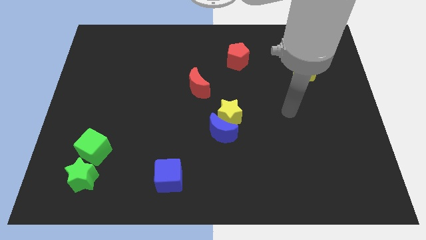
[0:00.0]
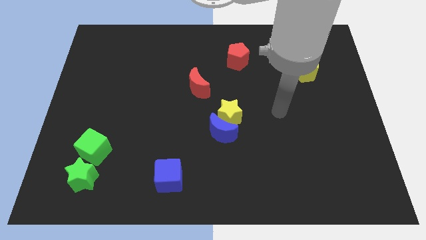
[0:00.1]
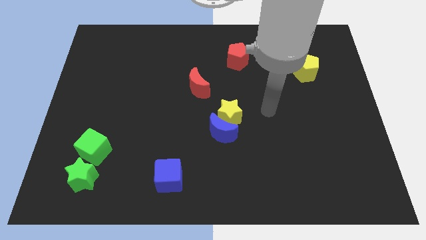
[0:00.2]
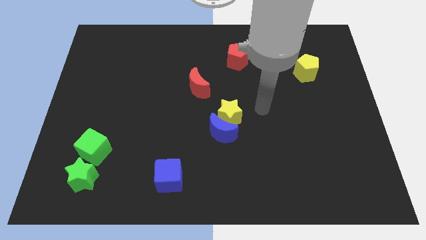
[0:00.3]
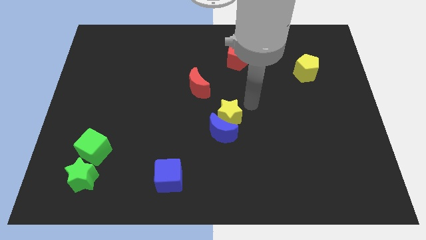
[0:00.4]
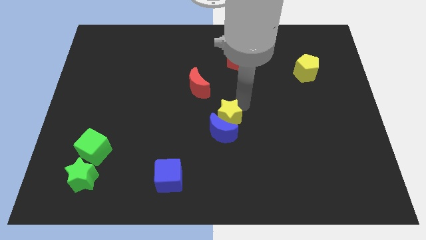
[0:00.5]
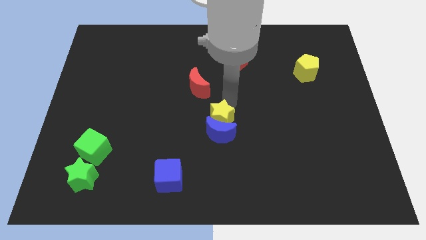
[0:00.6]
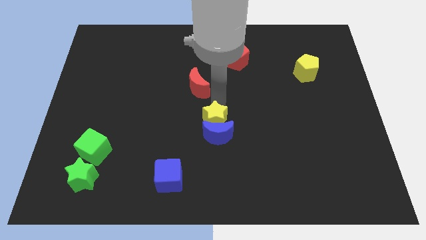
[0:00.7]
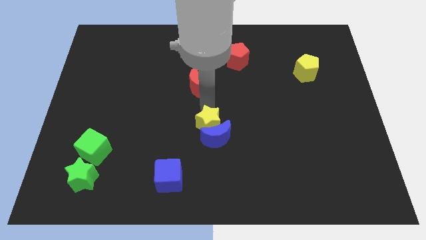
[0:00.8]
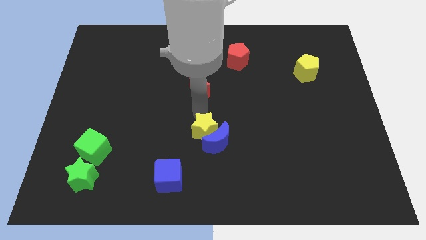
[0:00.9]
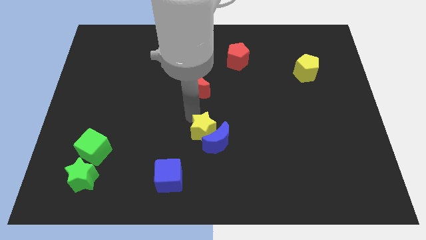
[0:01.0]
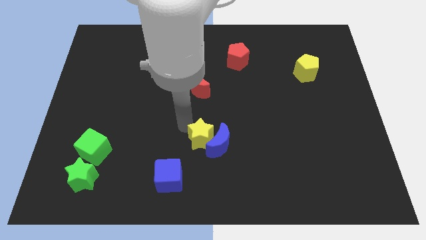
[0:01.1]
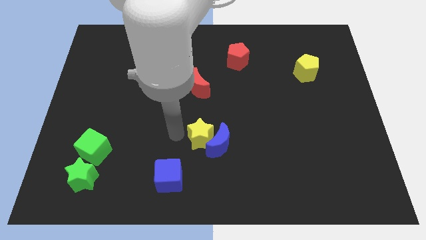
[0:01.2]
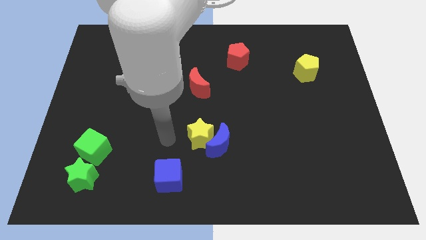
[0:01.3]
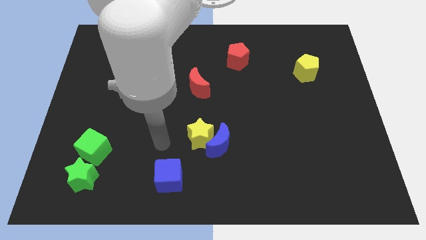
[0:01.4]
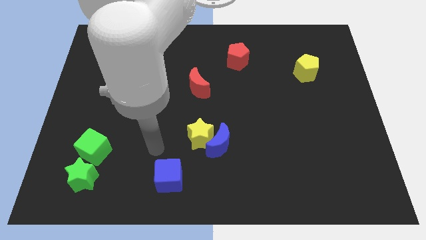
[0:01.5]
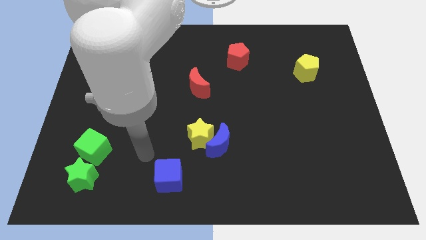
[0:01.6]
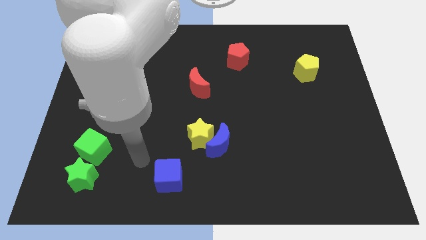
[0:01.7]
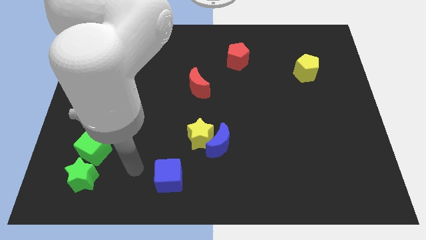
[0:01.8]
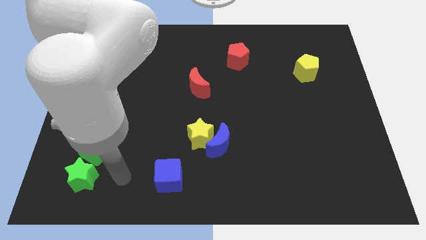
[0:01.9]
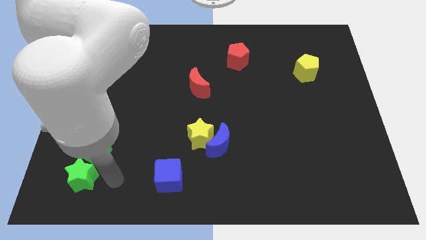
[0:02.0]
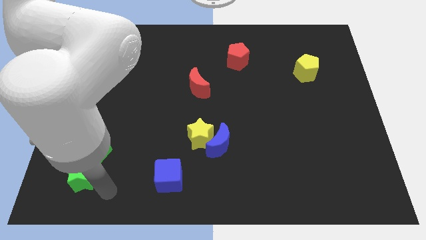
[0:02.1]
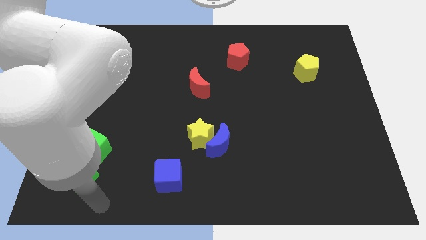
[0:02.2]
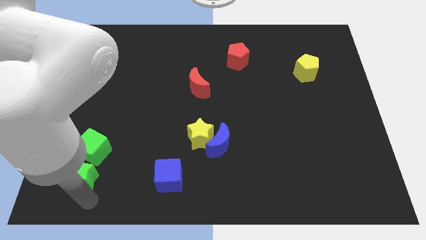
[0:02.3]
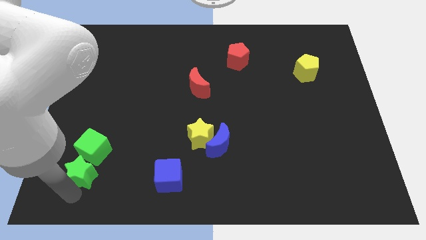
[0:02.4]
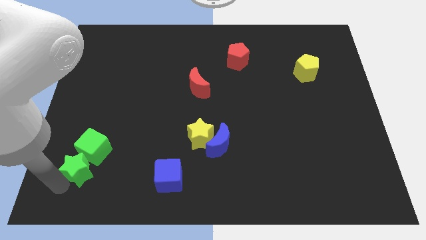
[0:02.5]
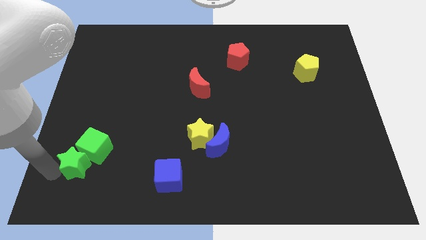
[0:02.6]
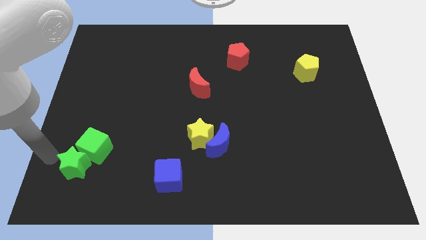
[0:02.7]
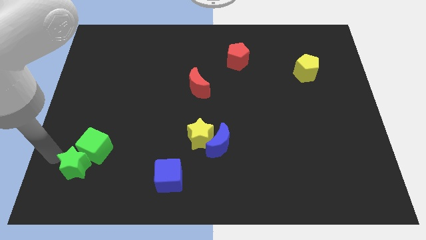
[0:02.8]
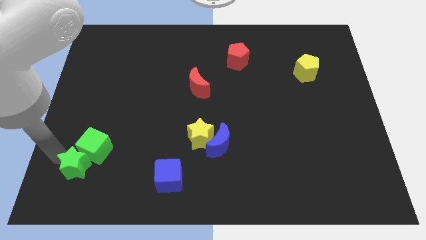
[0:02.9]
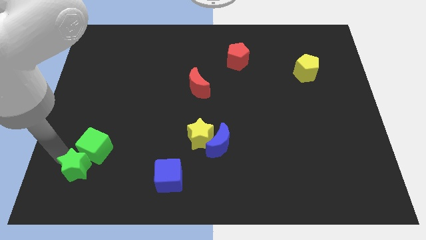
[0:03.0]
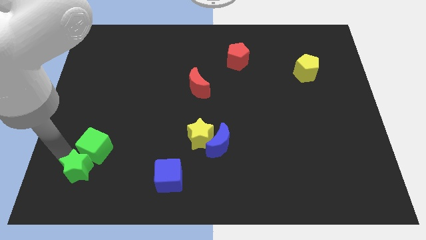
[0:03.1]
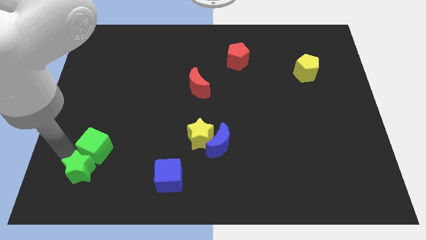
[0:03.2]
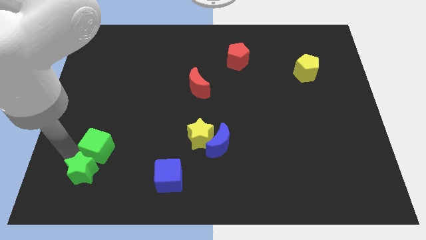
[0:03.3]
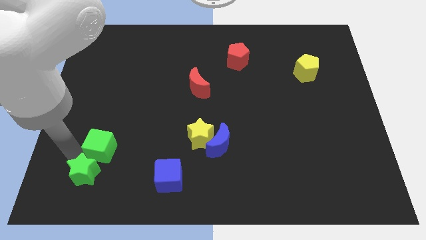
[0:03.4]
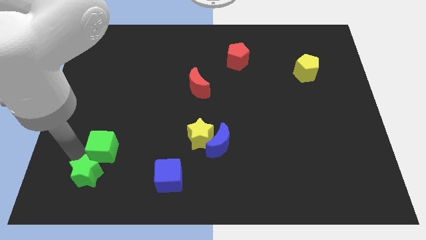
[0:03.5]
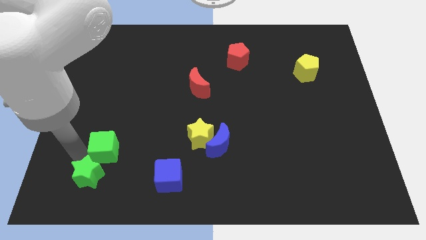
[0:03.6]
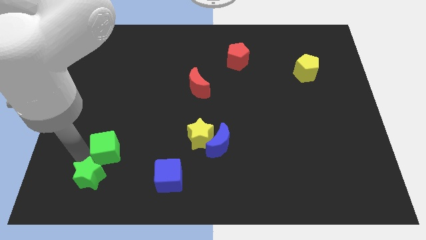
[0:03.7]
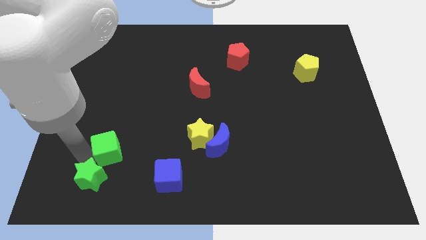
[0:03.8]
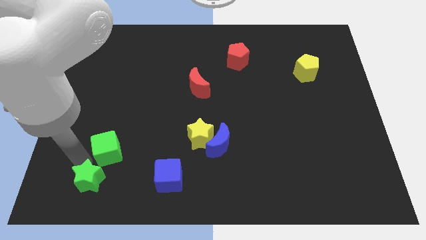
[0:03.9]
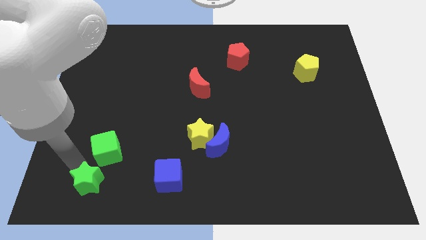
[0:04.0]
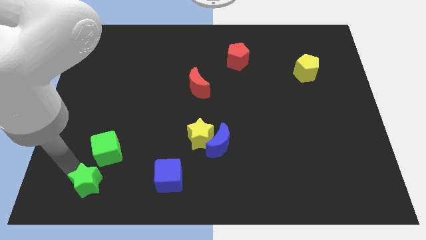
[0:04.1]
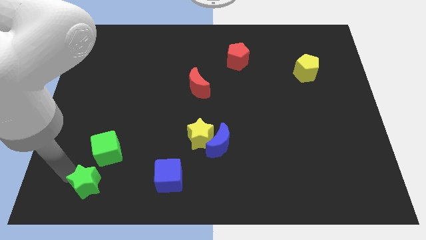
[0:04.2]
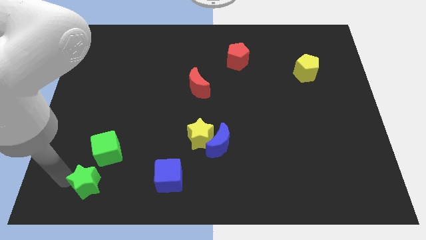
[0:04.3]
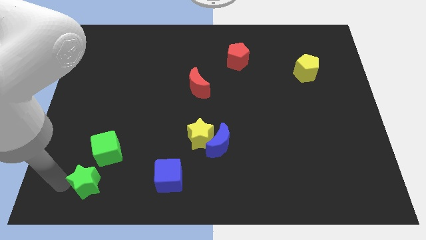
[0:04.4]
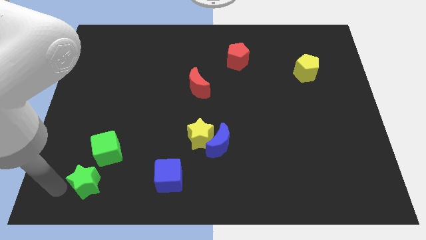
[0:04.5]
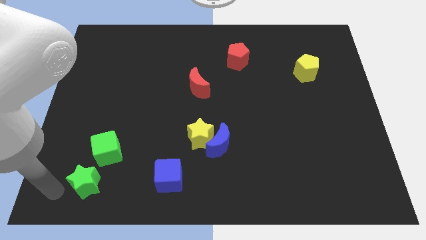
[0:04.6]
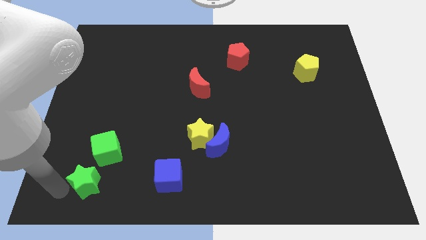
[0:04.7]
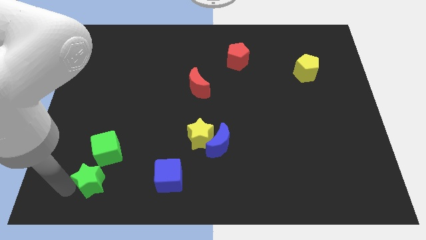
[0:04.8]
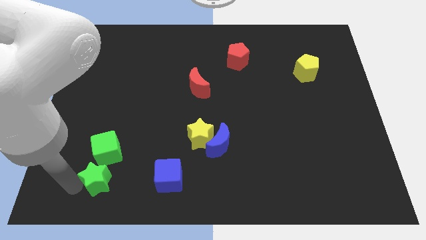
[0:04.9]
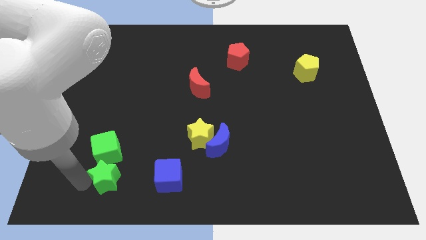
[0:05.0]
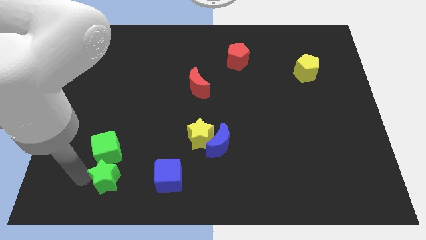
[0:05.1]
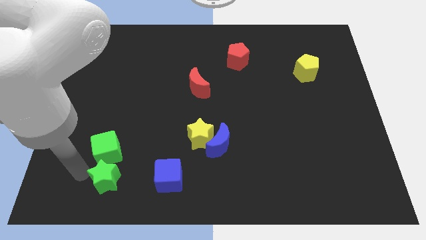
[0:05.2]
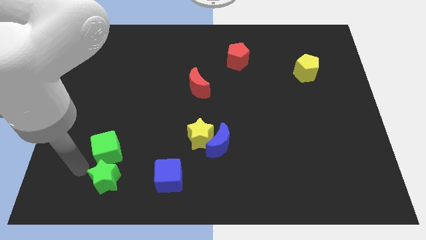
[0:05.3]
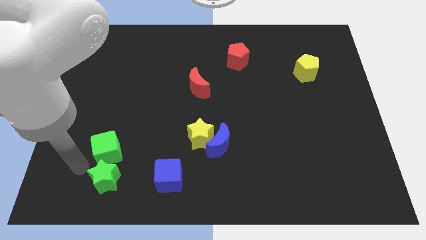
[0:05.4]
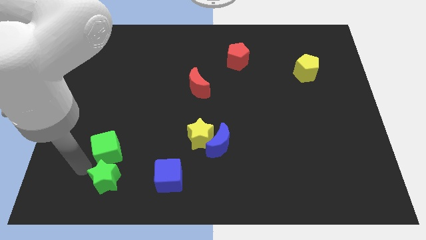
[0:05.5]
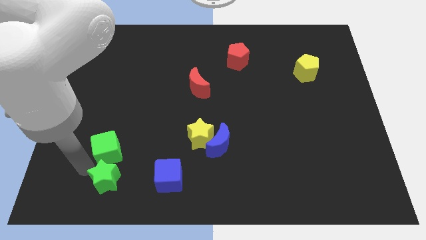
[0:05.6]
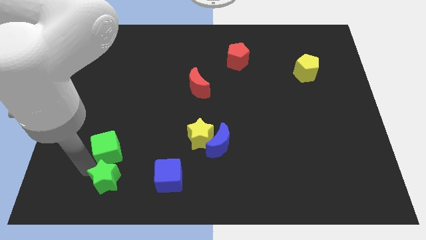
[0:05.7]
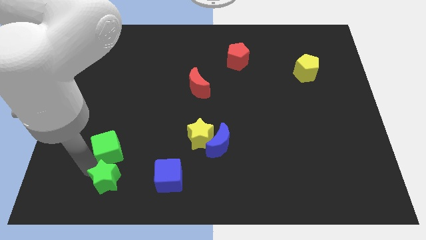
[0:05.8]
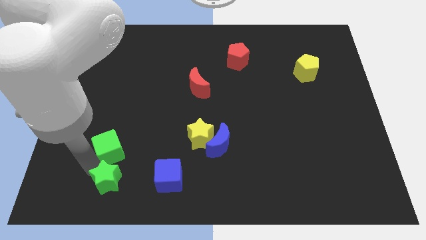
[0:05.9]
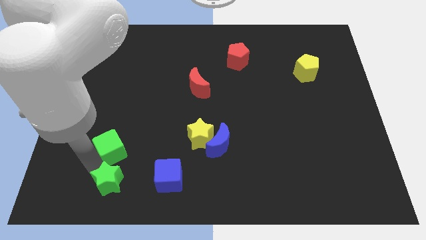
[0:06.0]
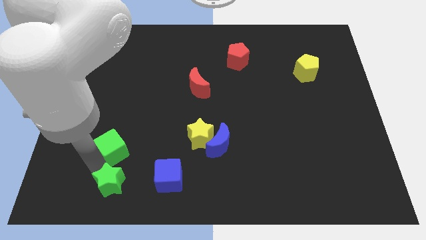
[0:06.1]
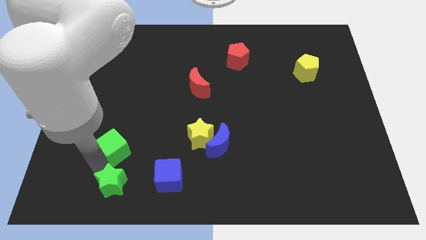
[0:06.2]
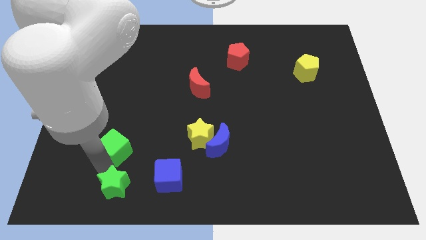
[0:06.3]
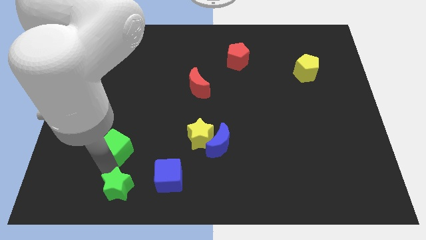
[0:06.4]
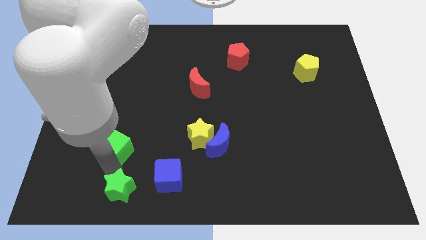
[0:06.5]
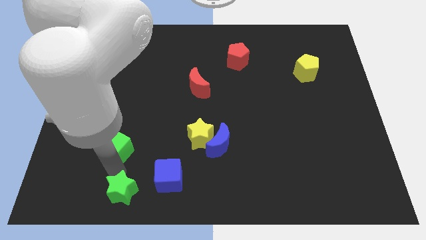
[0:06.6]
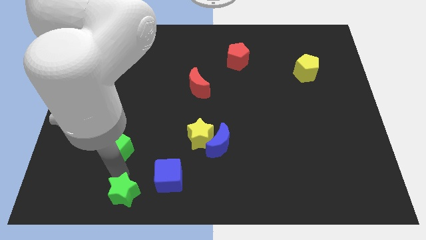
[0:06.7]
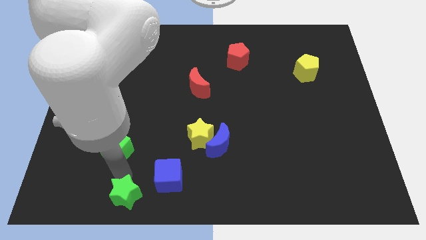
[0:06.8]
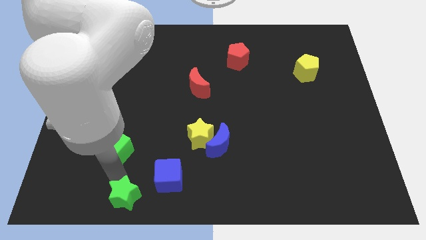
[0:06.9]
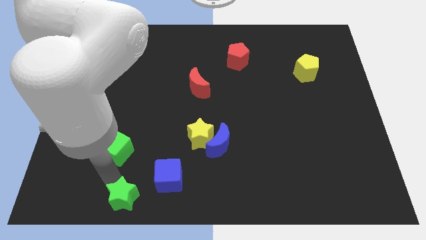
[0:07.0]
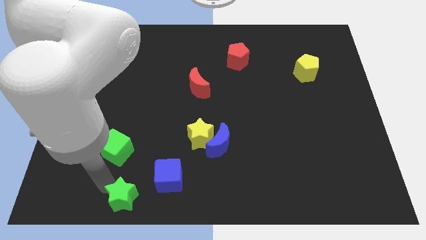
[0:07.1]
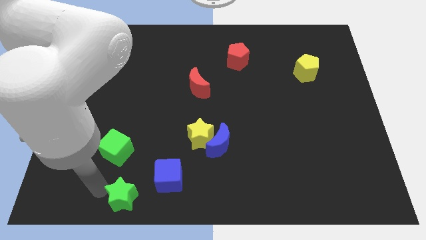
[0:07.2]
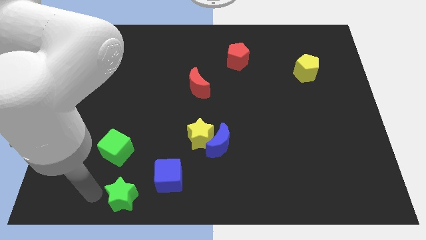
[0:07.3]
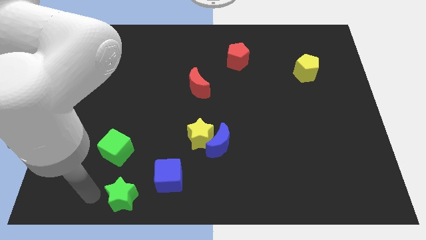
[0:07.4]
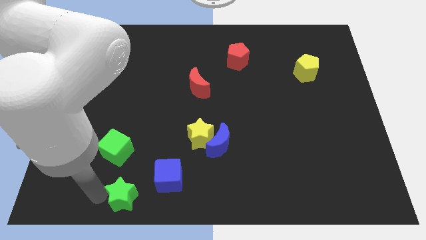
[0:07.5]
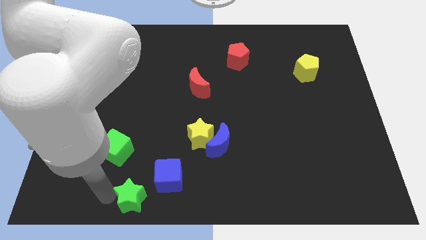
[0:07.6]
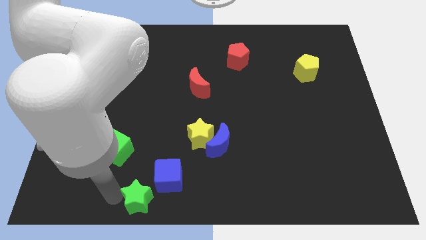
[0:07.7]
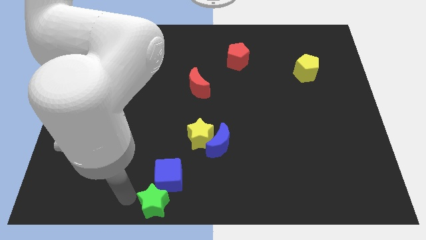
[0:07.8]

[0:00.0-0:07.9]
move the green star to the bottom
